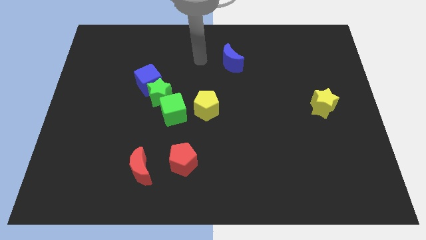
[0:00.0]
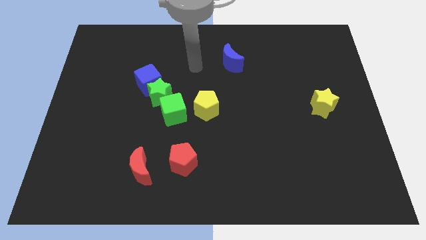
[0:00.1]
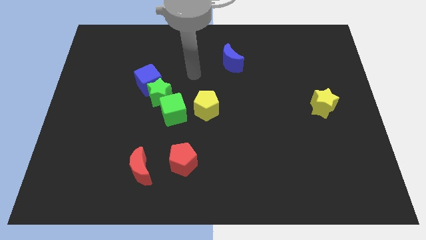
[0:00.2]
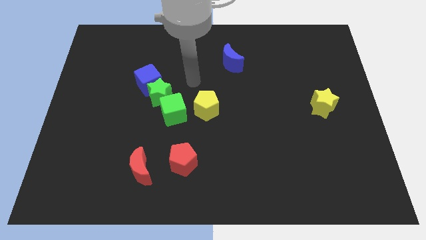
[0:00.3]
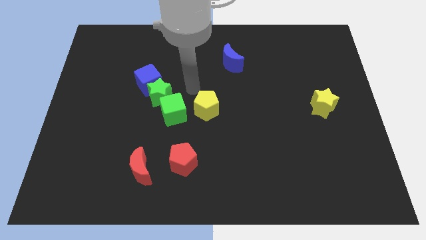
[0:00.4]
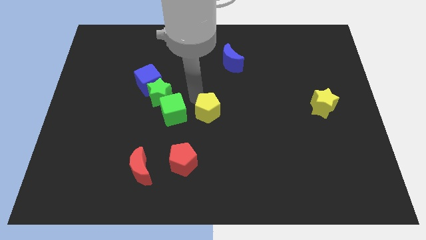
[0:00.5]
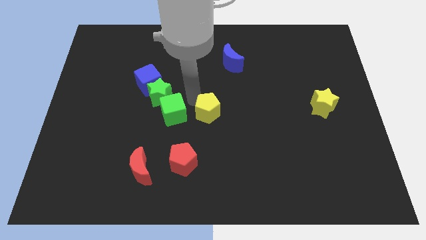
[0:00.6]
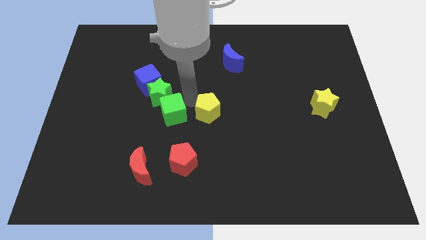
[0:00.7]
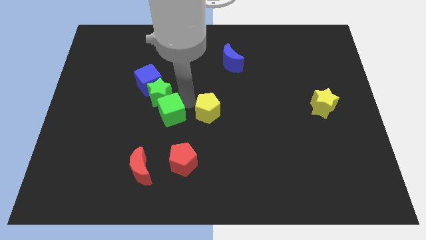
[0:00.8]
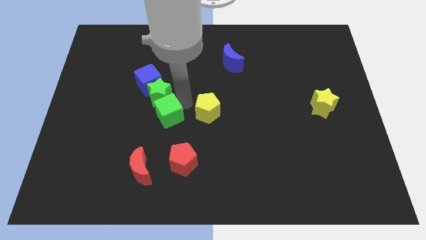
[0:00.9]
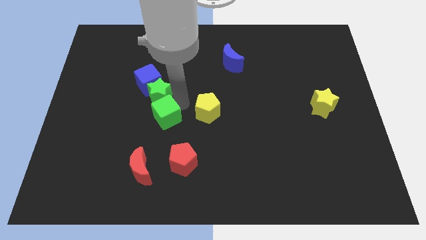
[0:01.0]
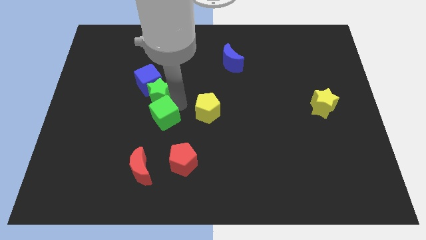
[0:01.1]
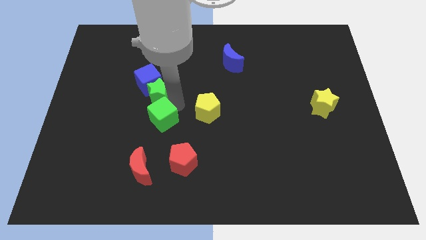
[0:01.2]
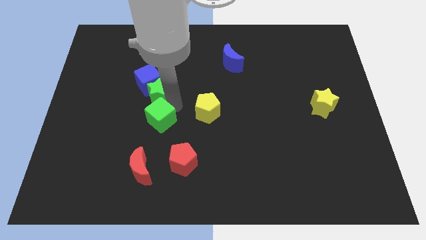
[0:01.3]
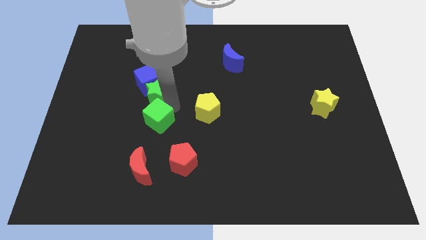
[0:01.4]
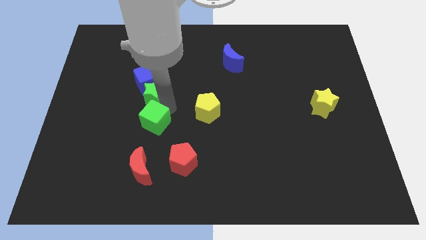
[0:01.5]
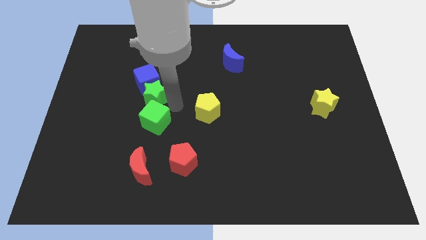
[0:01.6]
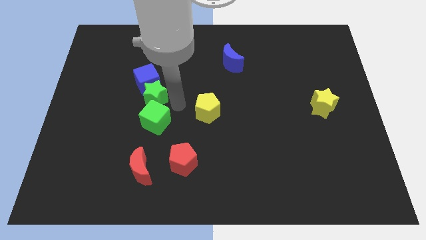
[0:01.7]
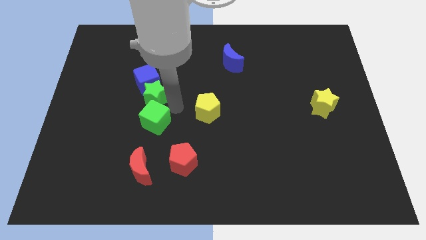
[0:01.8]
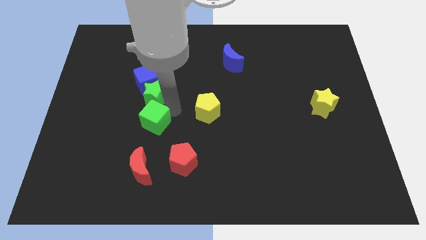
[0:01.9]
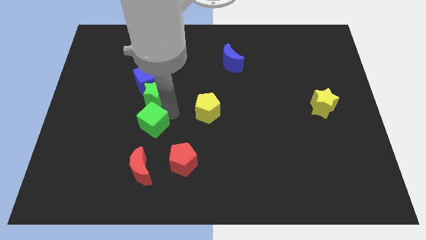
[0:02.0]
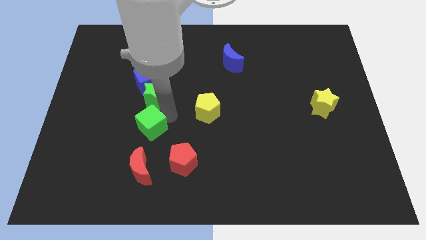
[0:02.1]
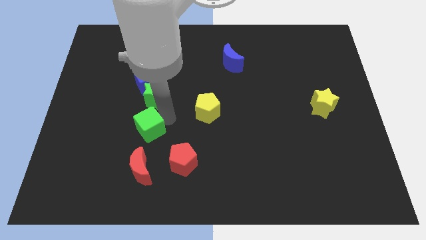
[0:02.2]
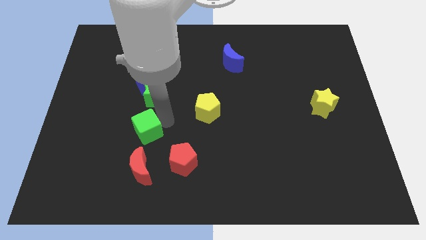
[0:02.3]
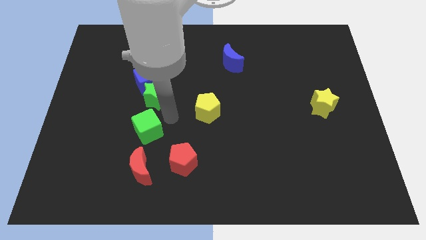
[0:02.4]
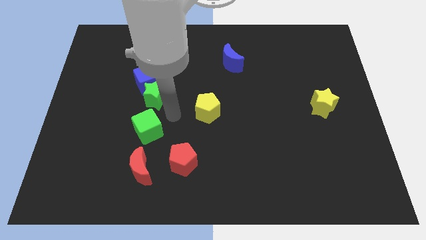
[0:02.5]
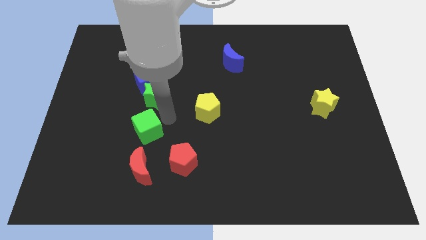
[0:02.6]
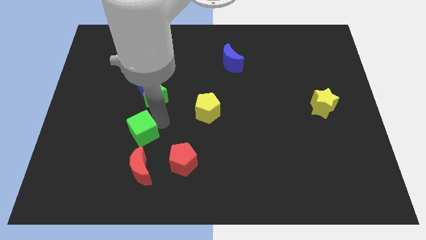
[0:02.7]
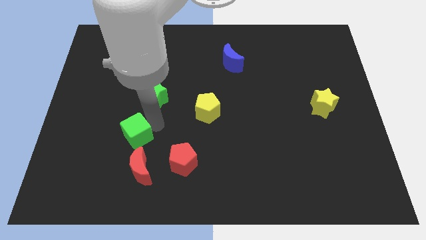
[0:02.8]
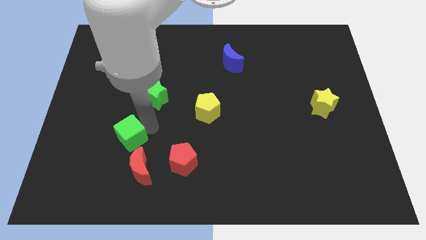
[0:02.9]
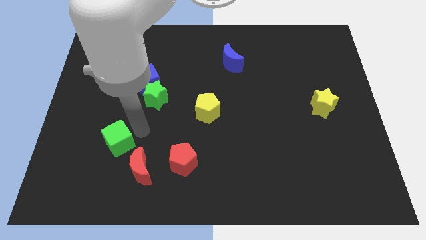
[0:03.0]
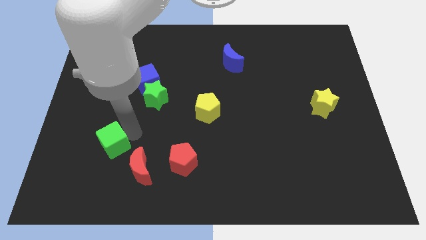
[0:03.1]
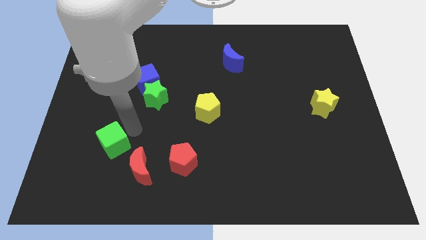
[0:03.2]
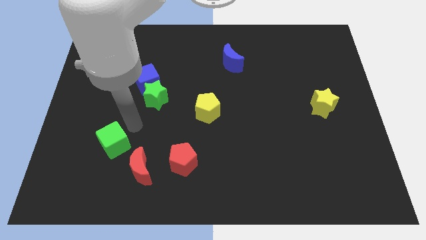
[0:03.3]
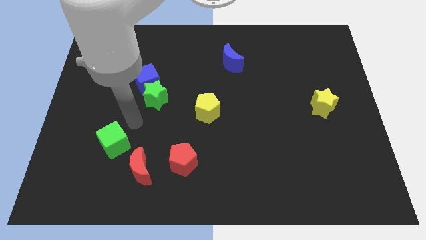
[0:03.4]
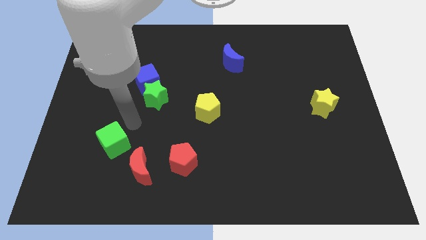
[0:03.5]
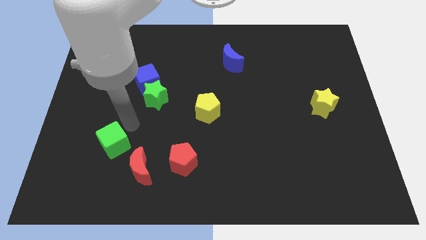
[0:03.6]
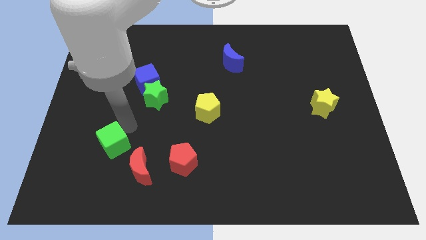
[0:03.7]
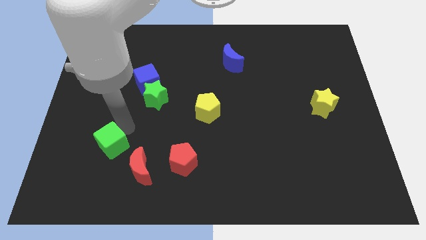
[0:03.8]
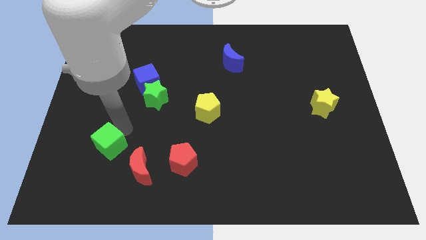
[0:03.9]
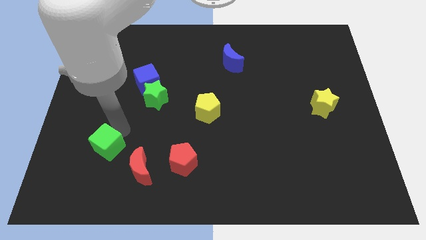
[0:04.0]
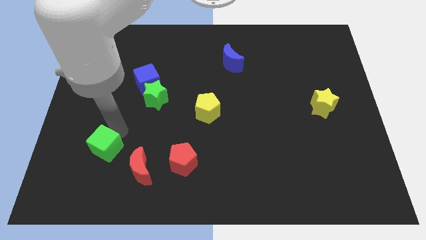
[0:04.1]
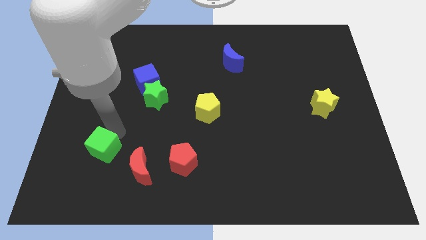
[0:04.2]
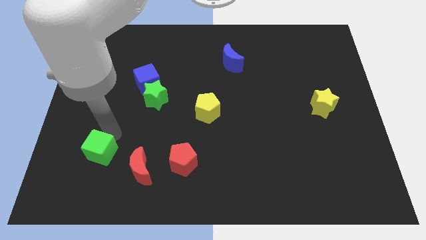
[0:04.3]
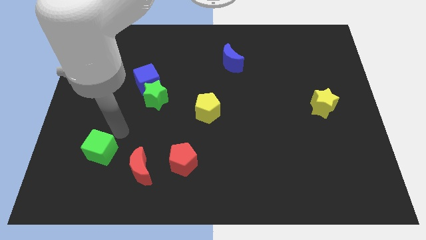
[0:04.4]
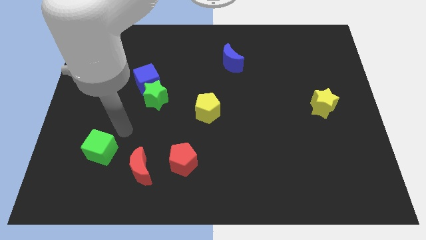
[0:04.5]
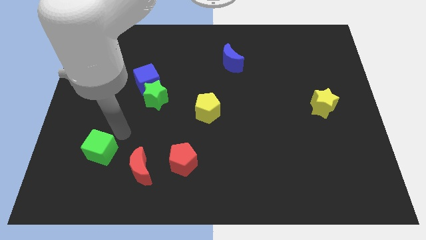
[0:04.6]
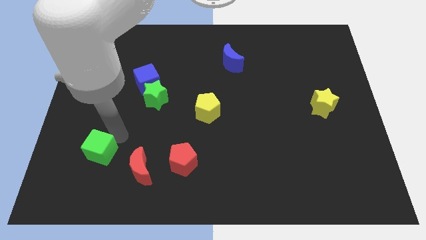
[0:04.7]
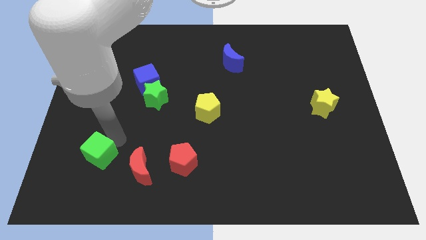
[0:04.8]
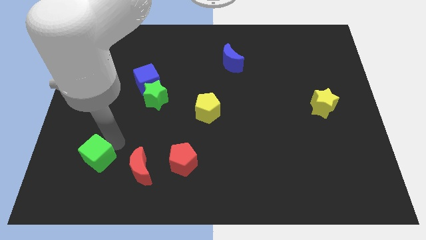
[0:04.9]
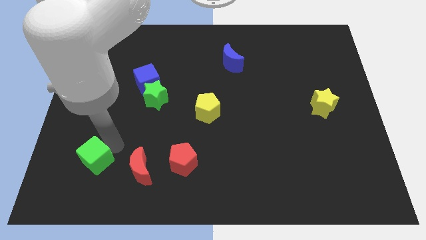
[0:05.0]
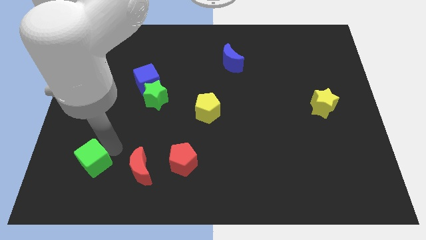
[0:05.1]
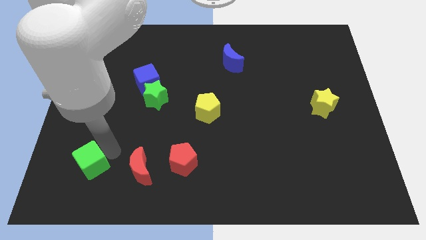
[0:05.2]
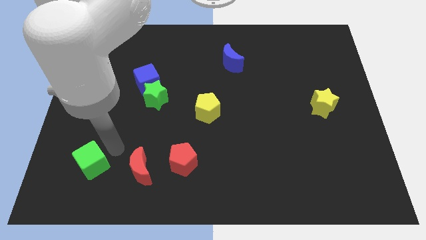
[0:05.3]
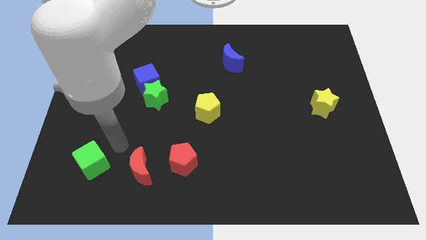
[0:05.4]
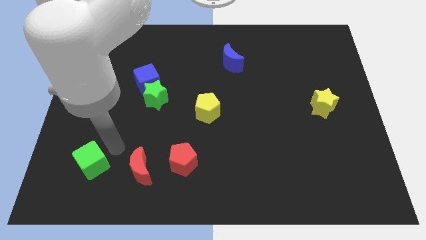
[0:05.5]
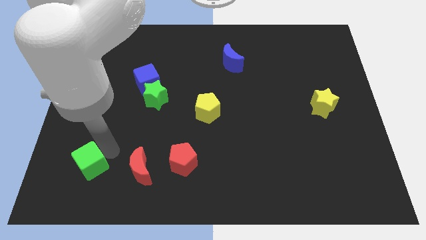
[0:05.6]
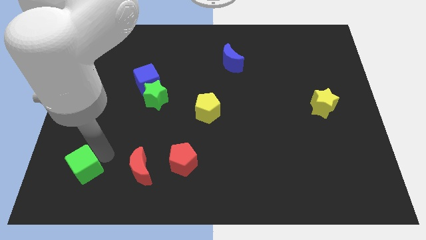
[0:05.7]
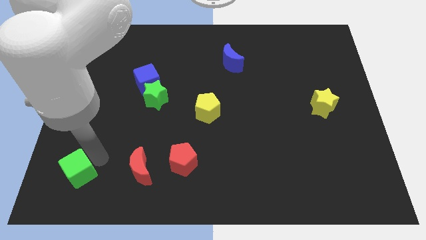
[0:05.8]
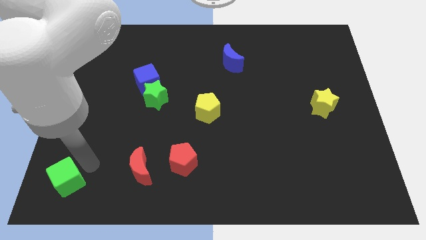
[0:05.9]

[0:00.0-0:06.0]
put the green cube to the lower left corner

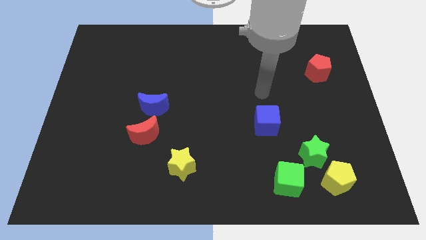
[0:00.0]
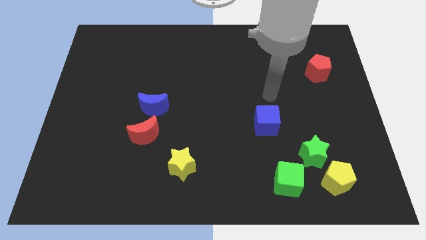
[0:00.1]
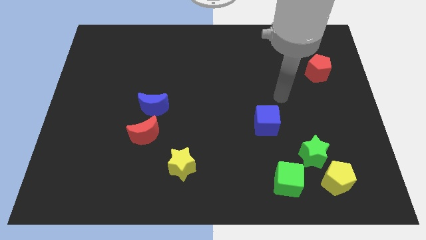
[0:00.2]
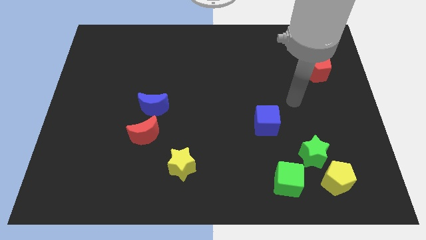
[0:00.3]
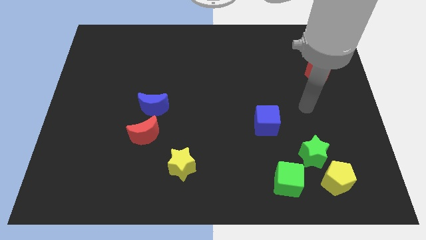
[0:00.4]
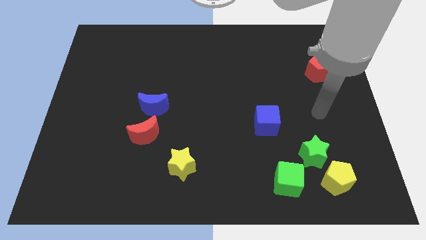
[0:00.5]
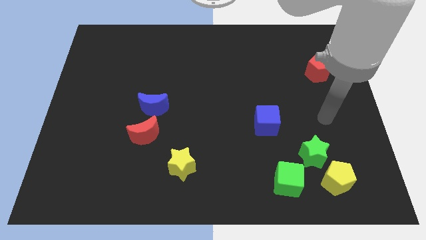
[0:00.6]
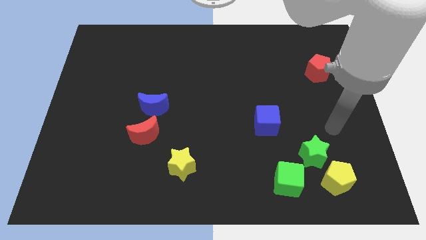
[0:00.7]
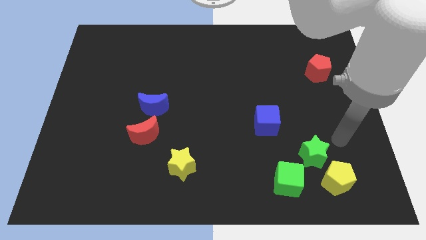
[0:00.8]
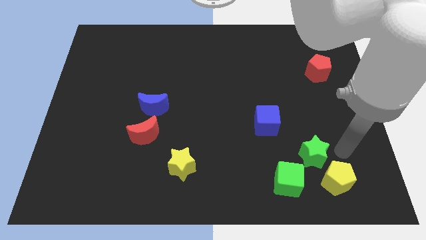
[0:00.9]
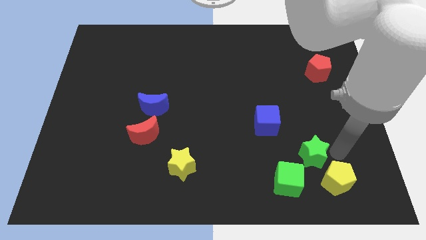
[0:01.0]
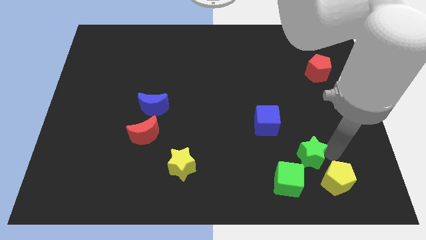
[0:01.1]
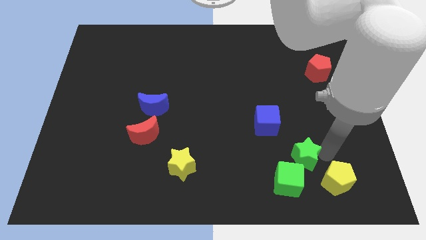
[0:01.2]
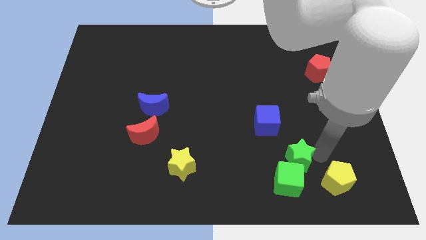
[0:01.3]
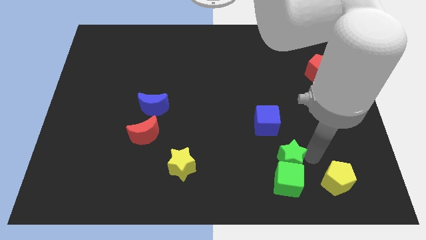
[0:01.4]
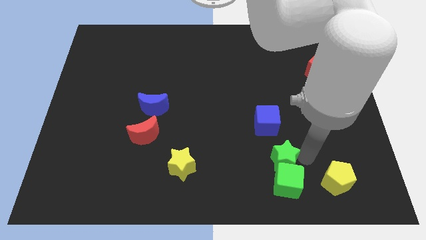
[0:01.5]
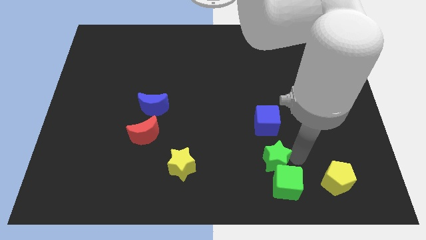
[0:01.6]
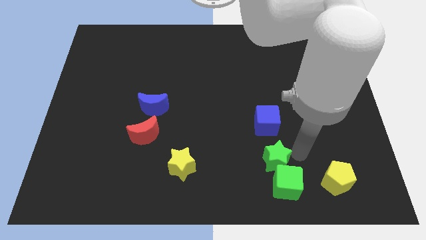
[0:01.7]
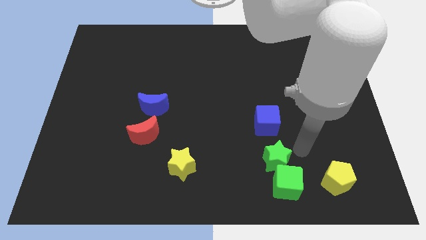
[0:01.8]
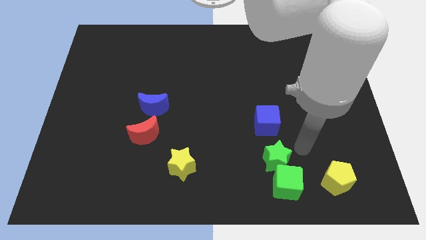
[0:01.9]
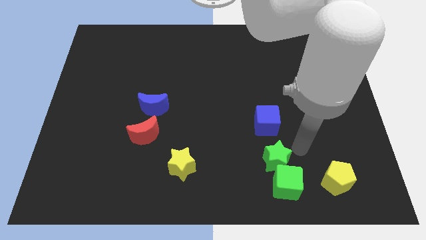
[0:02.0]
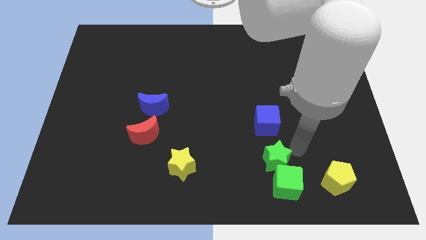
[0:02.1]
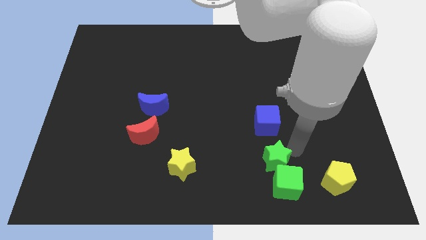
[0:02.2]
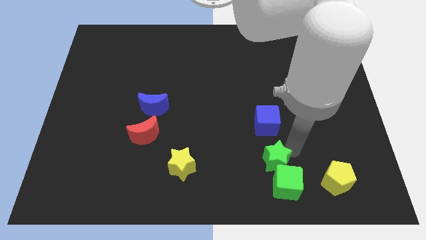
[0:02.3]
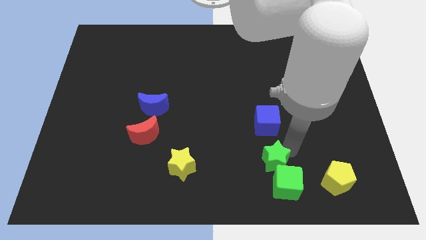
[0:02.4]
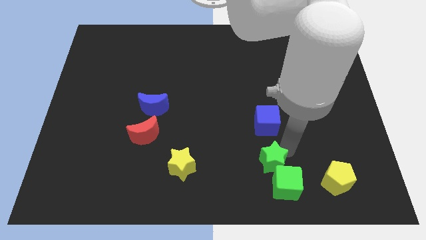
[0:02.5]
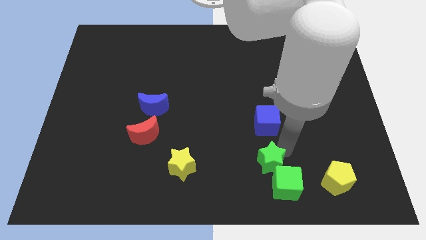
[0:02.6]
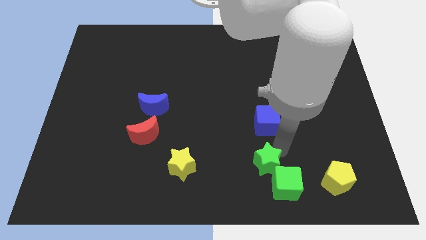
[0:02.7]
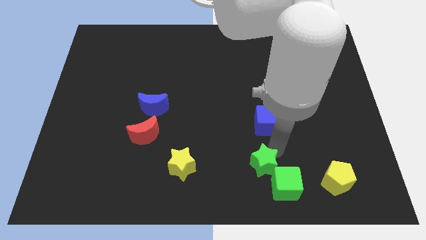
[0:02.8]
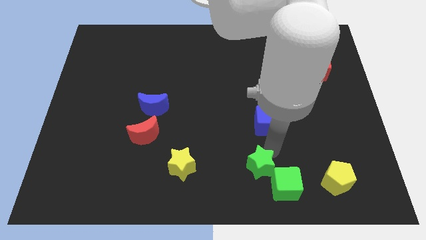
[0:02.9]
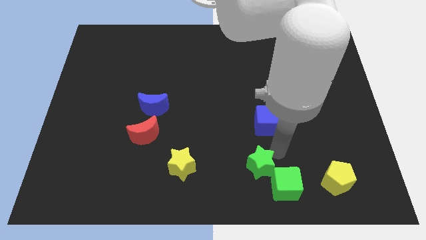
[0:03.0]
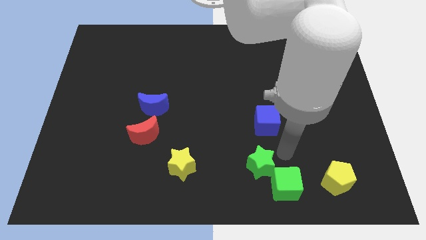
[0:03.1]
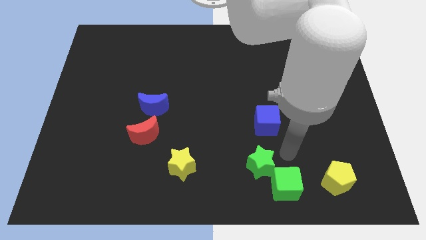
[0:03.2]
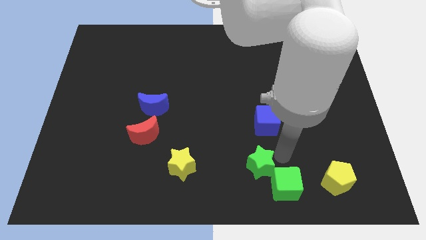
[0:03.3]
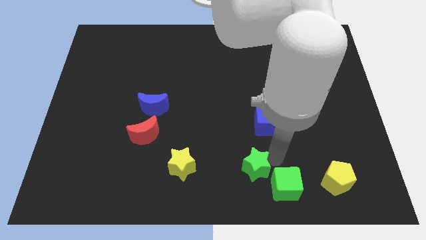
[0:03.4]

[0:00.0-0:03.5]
put the green star to the bottom
